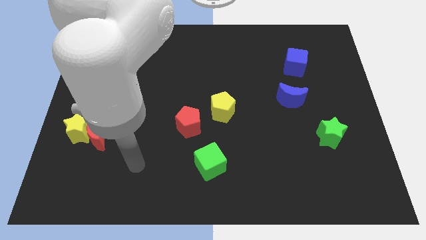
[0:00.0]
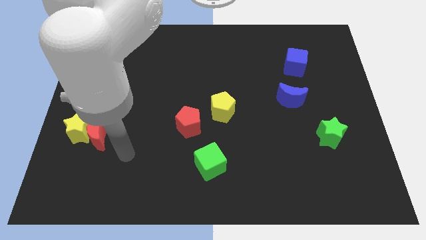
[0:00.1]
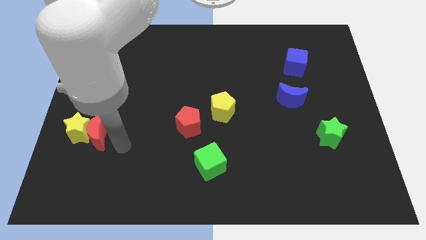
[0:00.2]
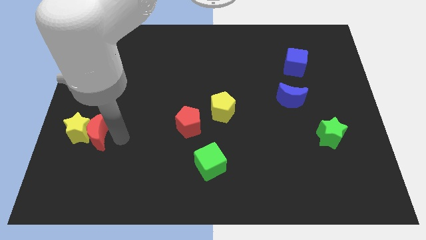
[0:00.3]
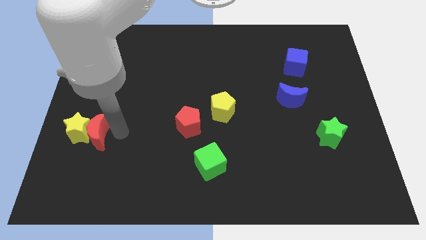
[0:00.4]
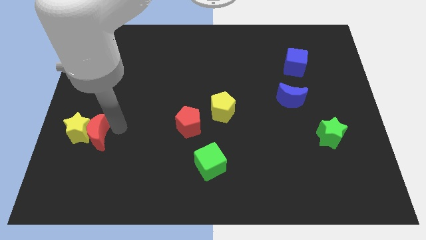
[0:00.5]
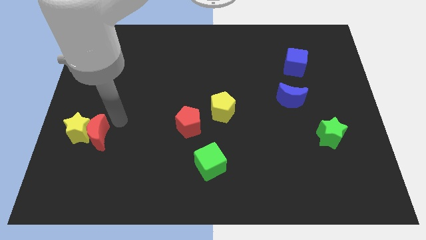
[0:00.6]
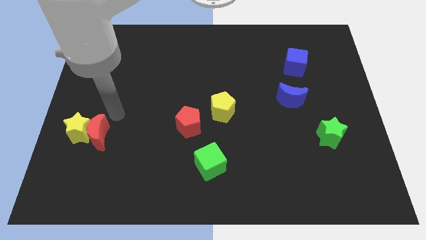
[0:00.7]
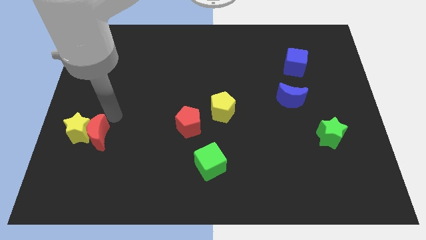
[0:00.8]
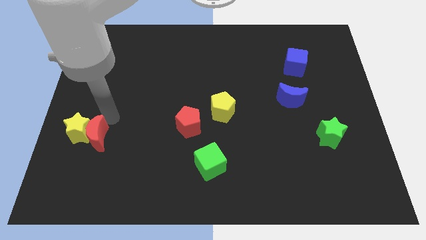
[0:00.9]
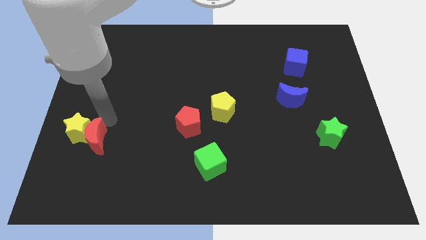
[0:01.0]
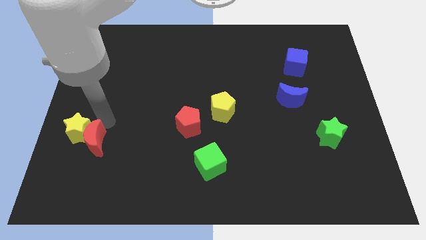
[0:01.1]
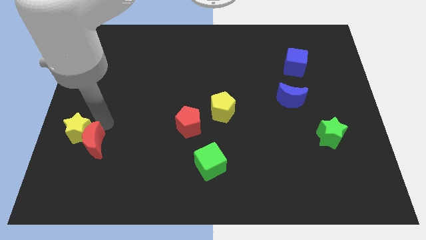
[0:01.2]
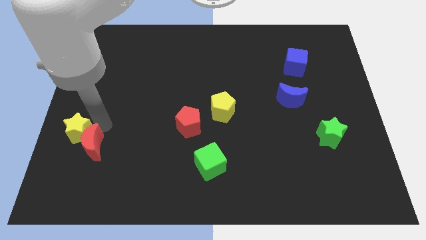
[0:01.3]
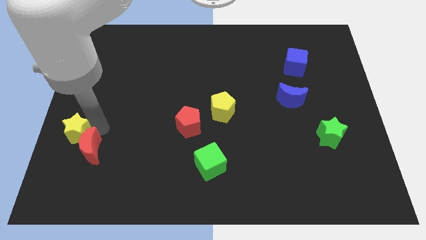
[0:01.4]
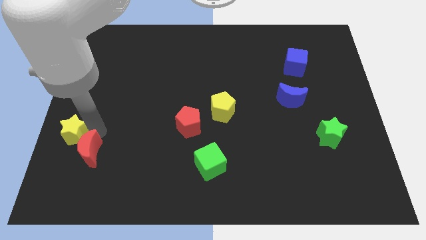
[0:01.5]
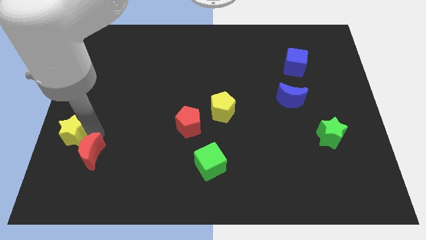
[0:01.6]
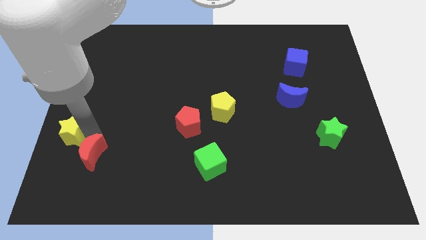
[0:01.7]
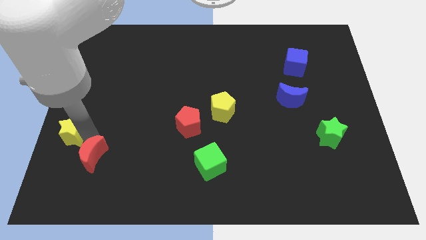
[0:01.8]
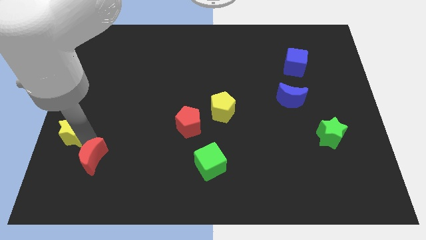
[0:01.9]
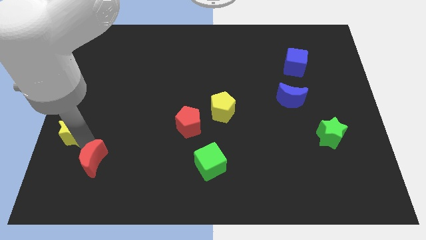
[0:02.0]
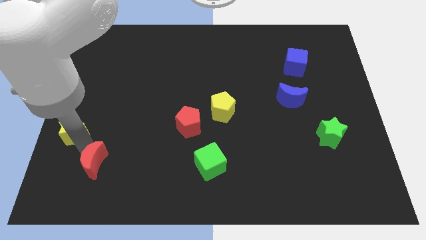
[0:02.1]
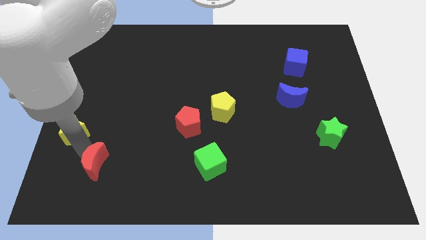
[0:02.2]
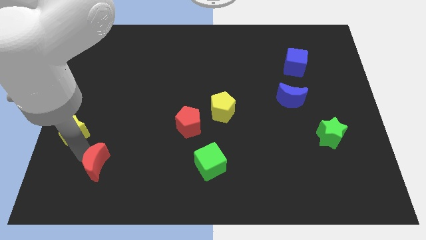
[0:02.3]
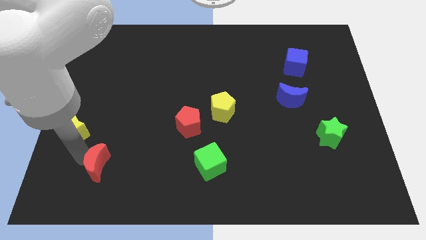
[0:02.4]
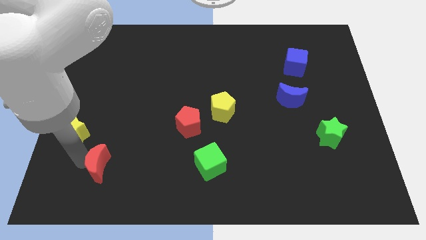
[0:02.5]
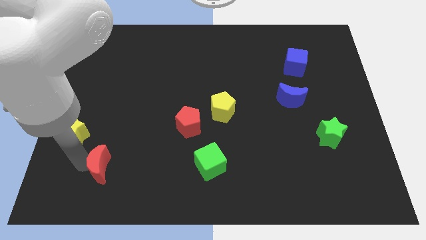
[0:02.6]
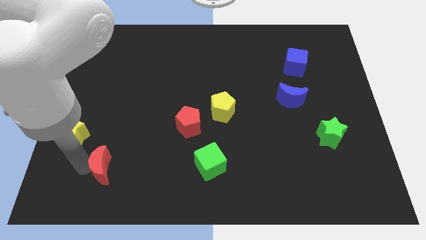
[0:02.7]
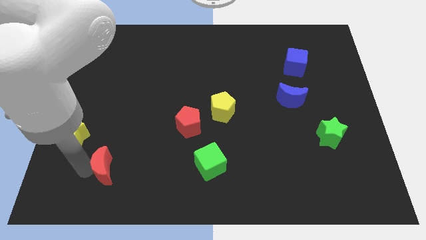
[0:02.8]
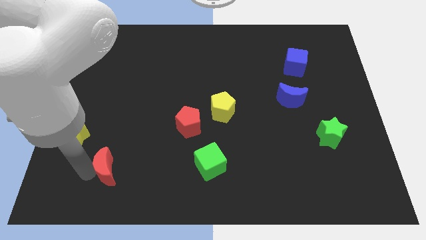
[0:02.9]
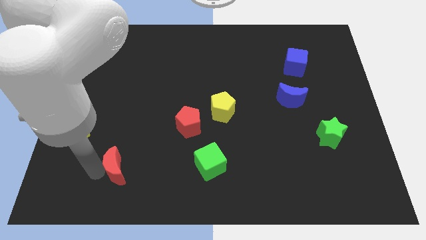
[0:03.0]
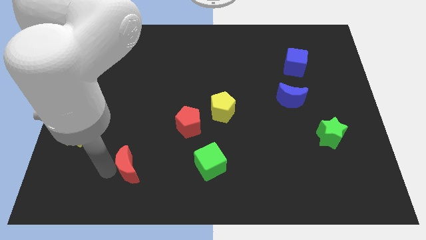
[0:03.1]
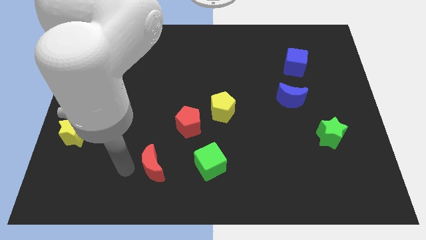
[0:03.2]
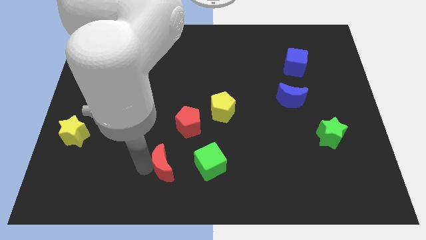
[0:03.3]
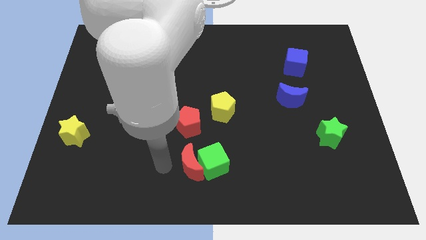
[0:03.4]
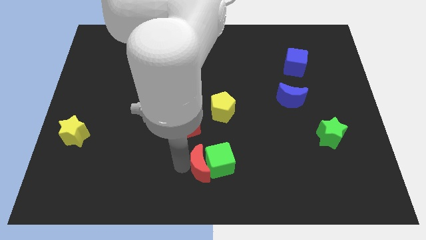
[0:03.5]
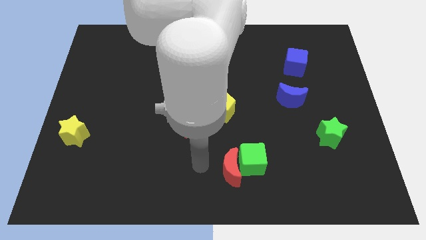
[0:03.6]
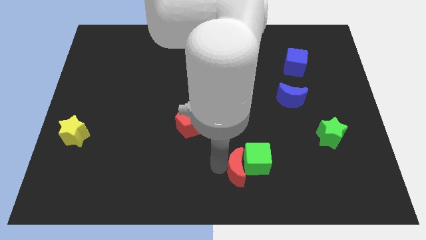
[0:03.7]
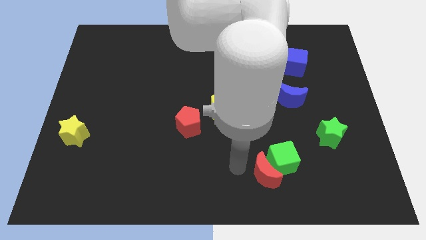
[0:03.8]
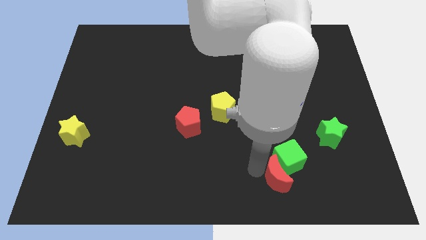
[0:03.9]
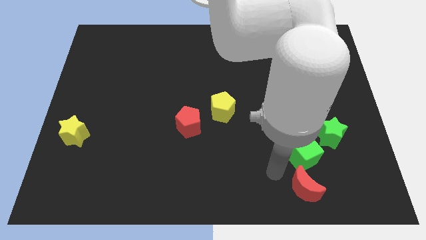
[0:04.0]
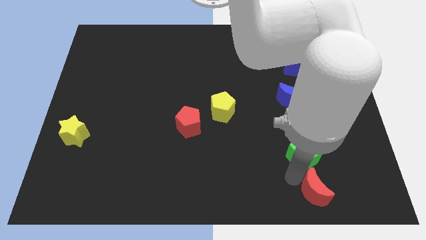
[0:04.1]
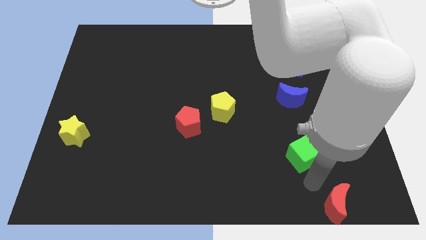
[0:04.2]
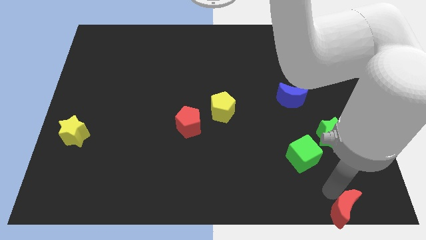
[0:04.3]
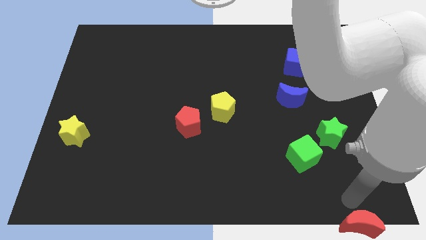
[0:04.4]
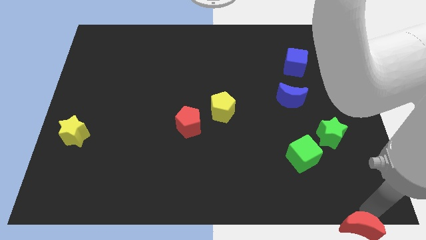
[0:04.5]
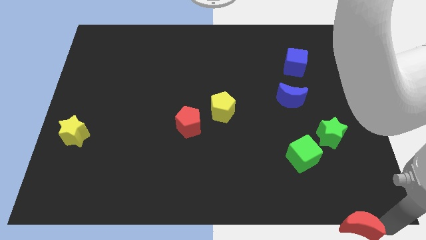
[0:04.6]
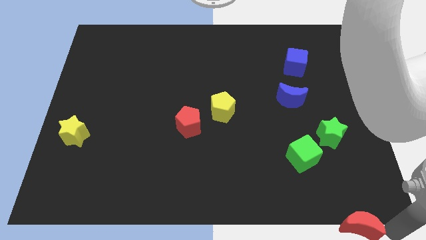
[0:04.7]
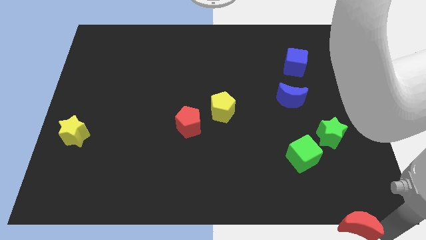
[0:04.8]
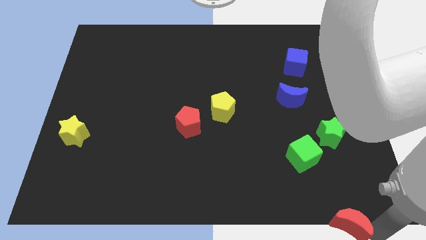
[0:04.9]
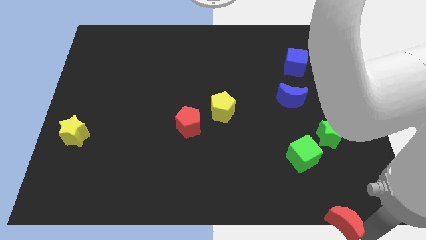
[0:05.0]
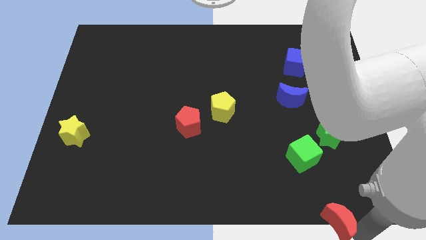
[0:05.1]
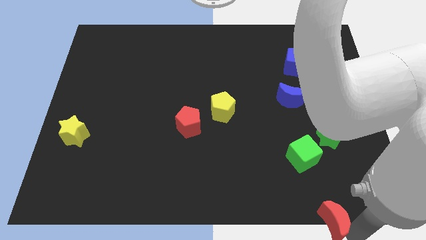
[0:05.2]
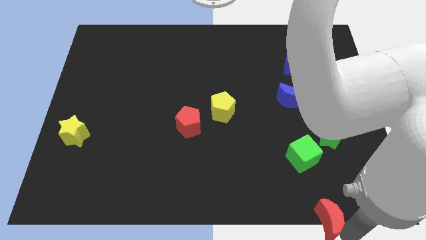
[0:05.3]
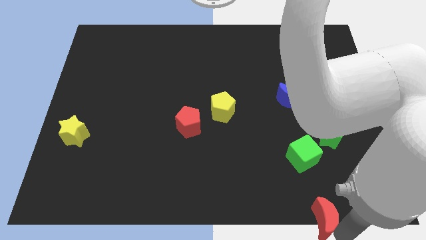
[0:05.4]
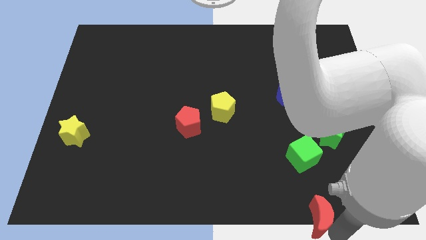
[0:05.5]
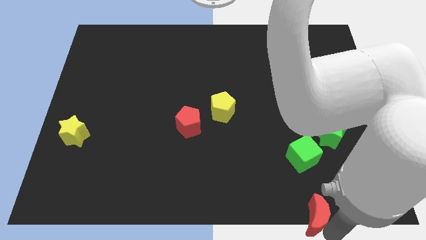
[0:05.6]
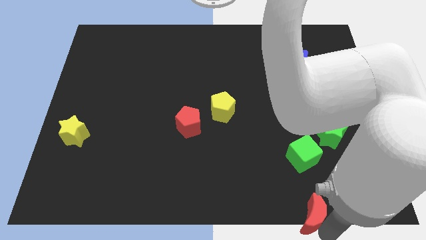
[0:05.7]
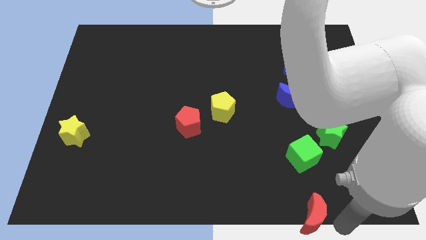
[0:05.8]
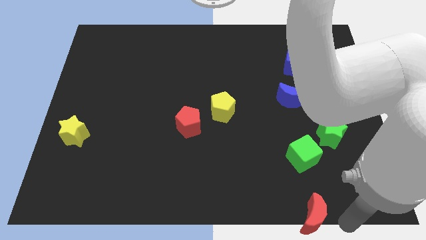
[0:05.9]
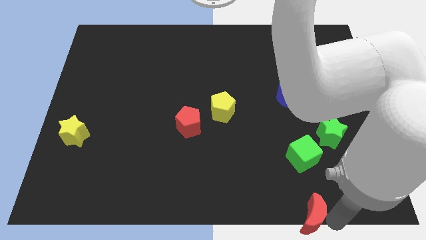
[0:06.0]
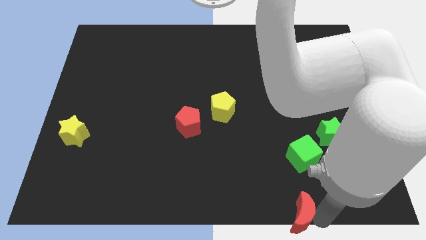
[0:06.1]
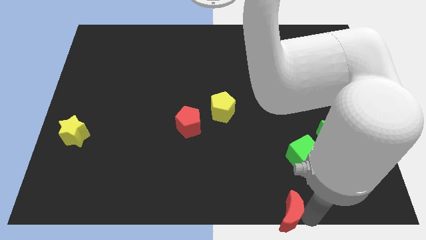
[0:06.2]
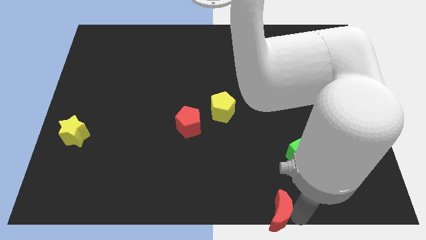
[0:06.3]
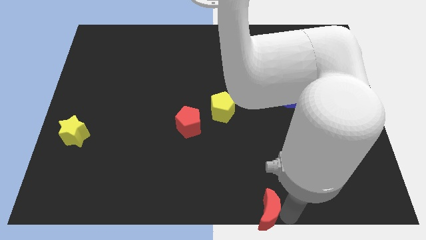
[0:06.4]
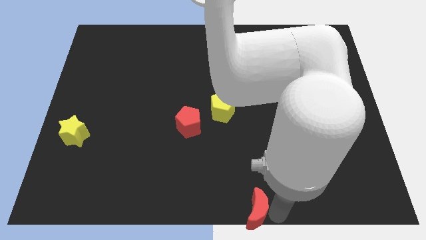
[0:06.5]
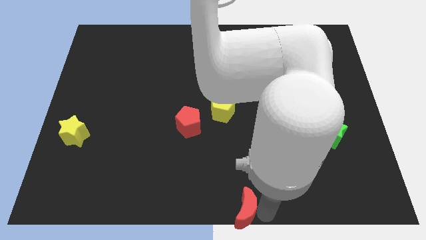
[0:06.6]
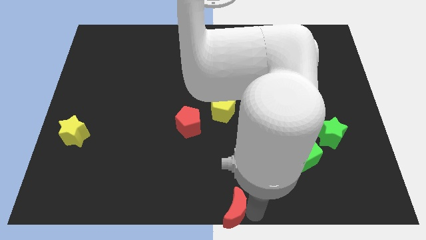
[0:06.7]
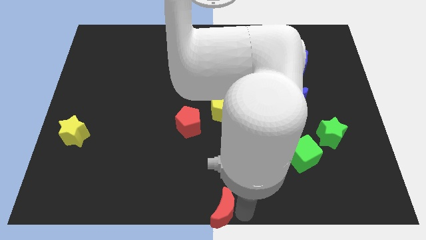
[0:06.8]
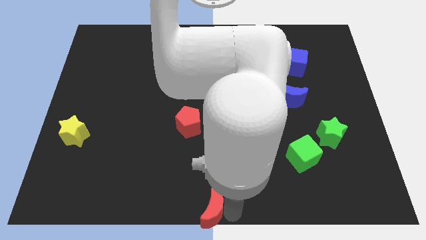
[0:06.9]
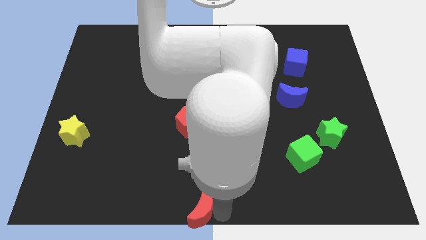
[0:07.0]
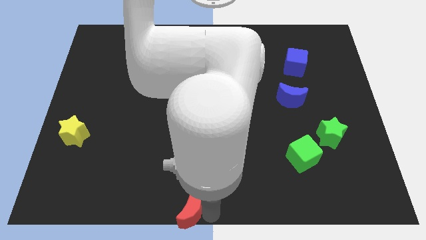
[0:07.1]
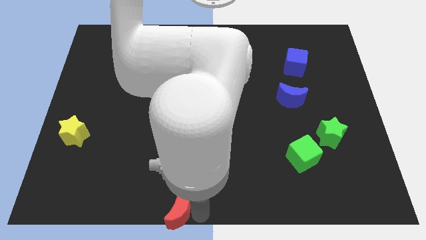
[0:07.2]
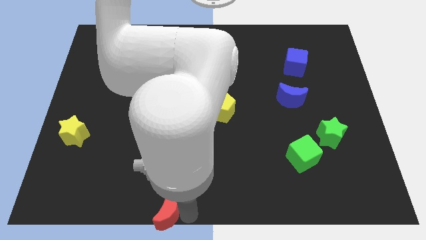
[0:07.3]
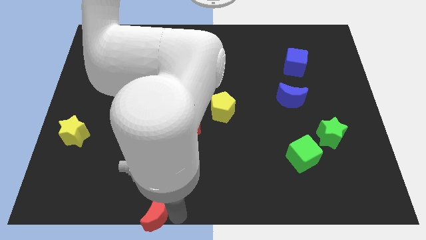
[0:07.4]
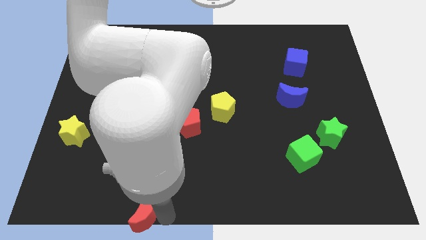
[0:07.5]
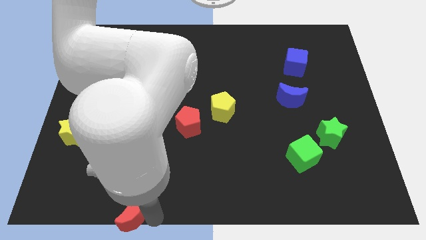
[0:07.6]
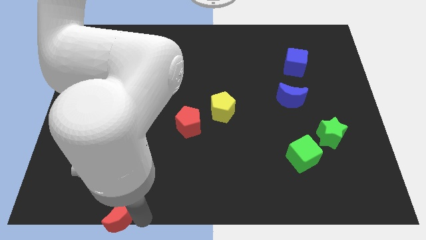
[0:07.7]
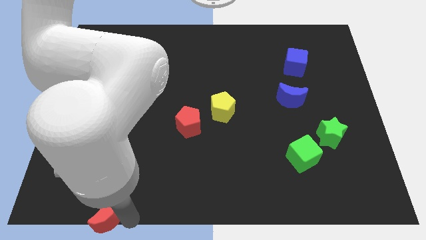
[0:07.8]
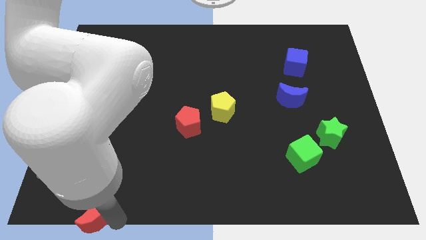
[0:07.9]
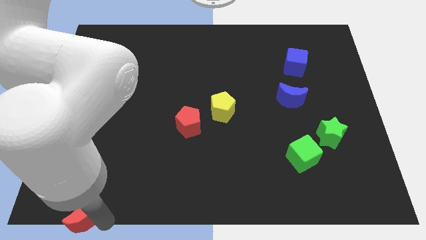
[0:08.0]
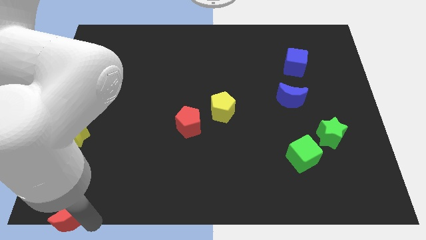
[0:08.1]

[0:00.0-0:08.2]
slide the red moon to the bottom left
